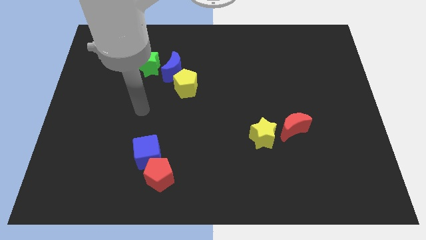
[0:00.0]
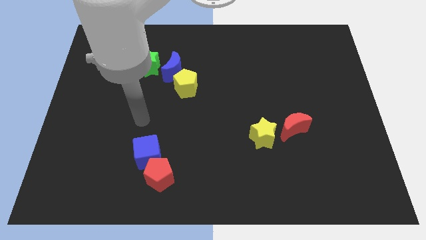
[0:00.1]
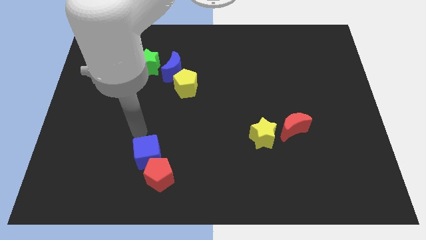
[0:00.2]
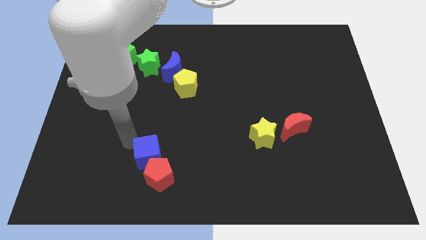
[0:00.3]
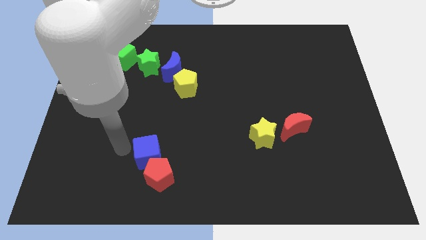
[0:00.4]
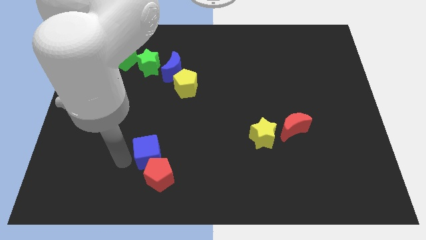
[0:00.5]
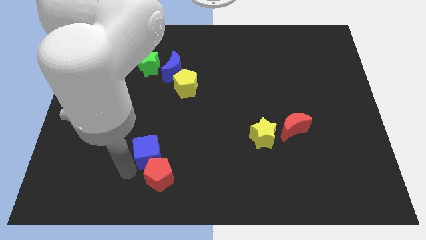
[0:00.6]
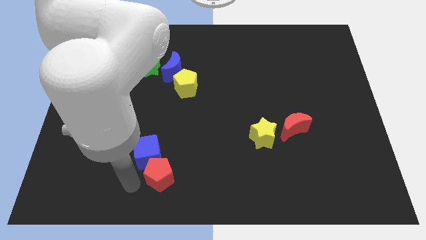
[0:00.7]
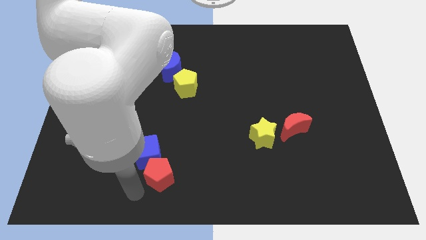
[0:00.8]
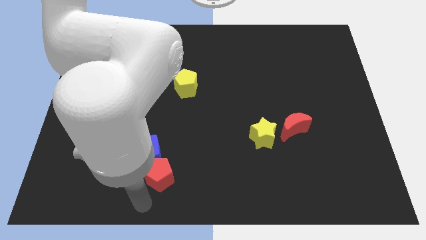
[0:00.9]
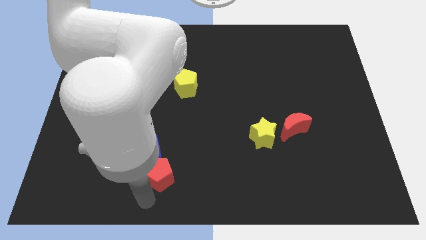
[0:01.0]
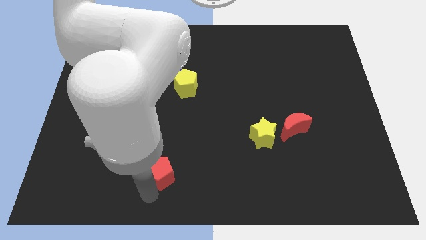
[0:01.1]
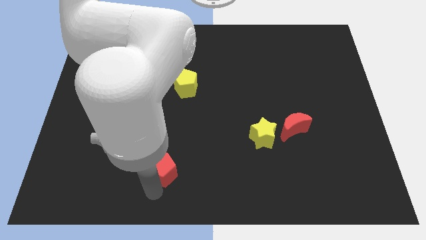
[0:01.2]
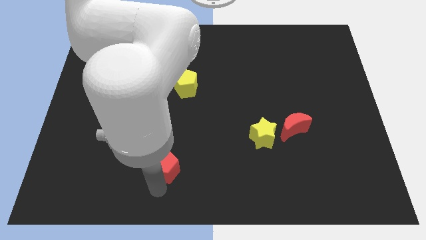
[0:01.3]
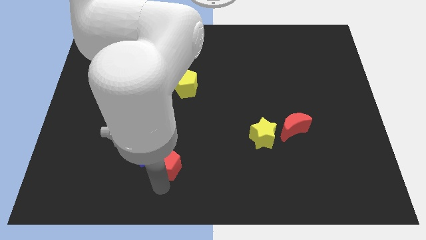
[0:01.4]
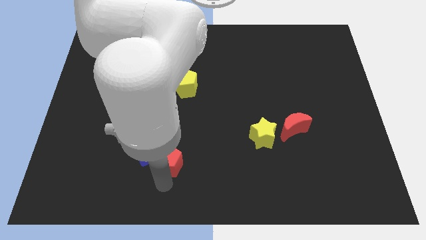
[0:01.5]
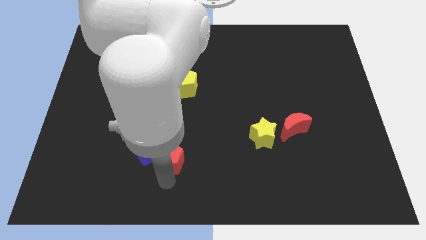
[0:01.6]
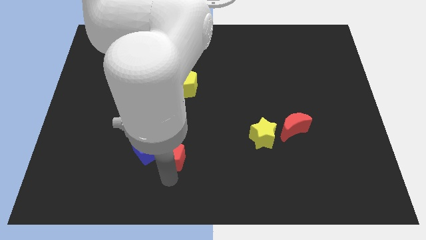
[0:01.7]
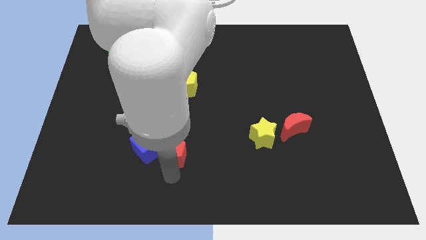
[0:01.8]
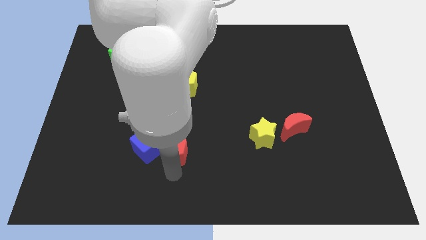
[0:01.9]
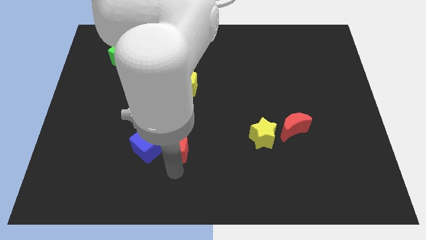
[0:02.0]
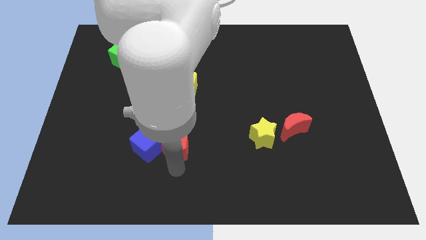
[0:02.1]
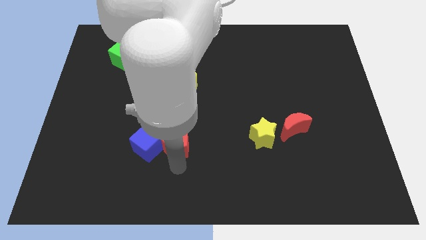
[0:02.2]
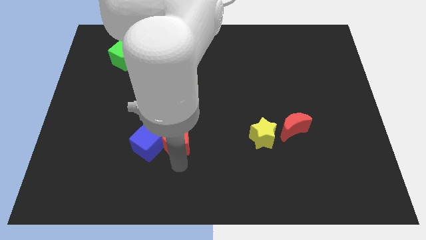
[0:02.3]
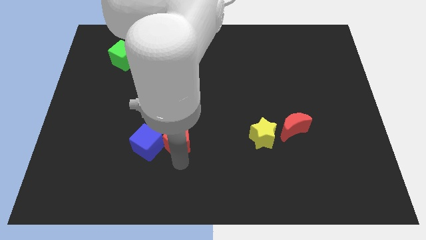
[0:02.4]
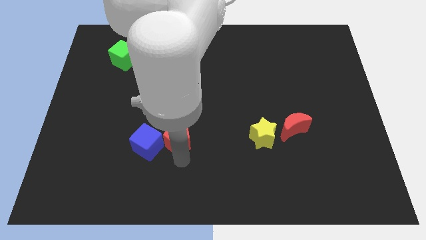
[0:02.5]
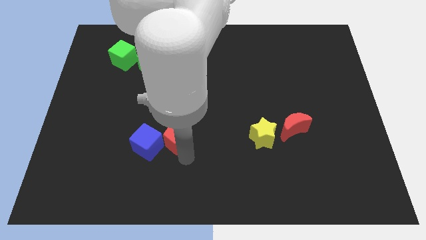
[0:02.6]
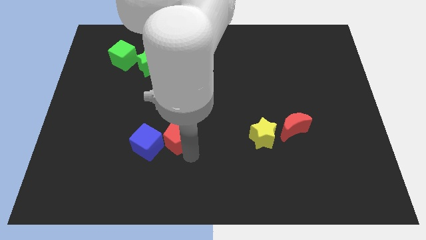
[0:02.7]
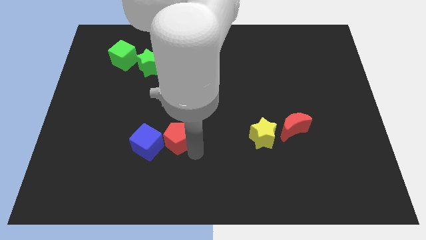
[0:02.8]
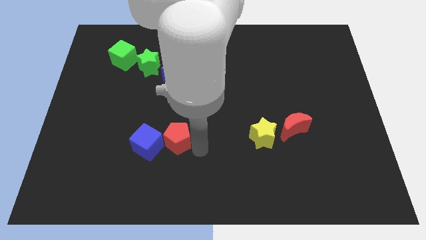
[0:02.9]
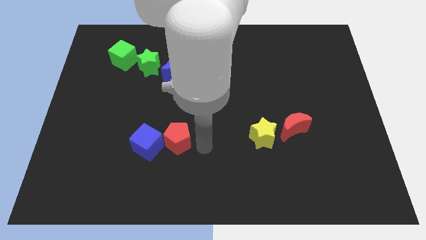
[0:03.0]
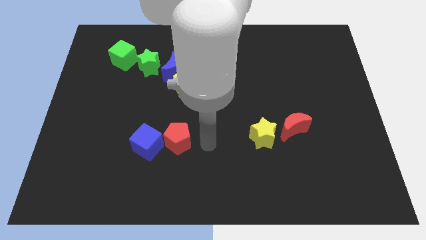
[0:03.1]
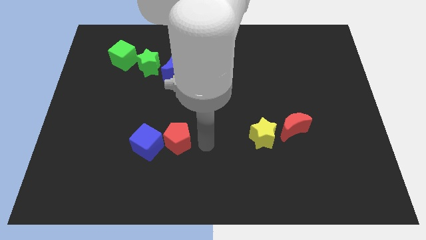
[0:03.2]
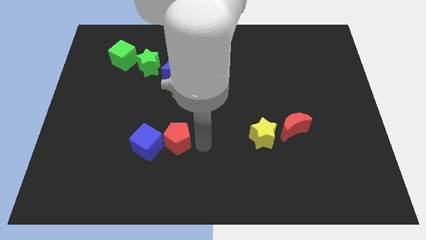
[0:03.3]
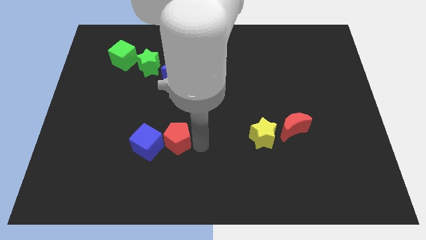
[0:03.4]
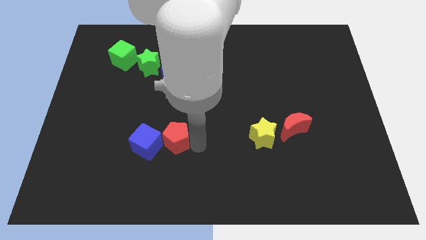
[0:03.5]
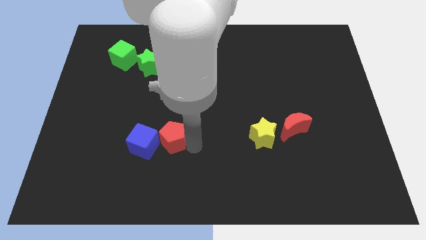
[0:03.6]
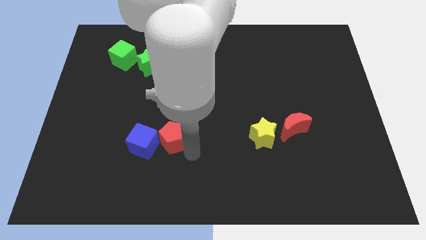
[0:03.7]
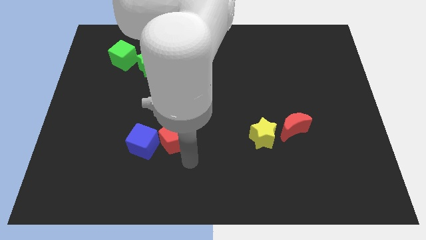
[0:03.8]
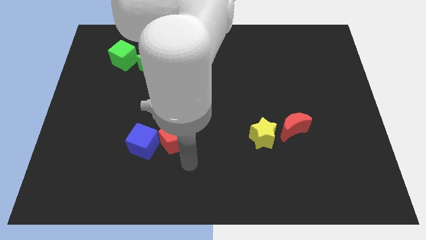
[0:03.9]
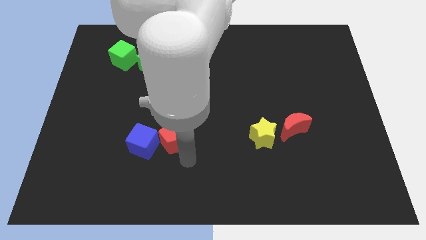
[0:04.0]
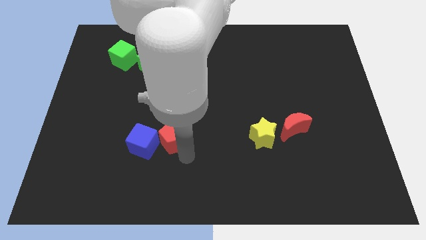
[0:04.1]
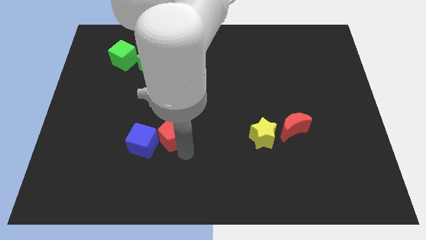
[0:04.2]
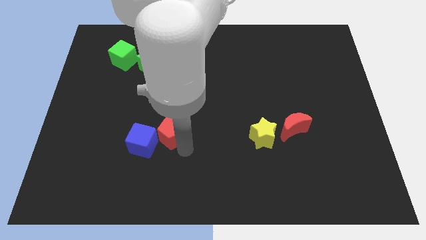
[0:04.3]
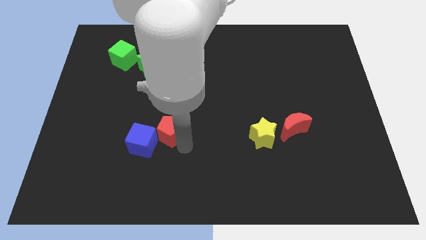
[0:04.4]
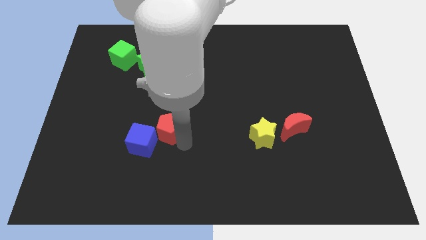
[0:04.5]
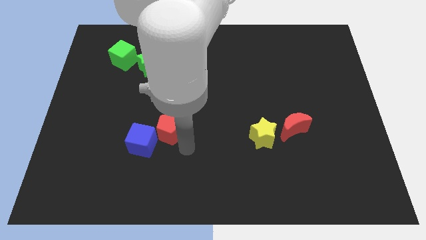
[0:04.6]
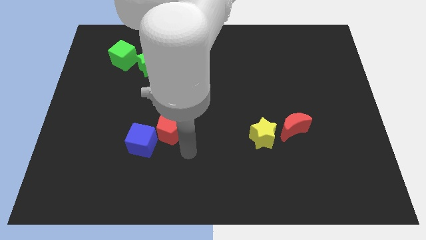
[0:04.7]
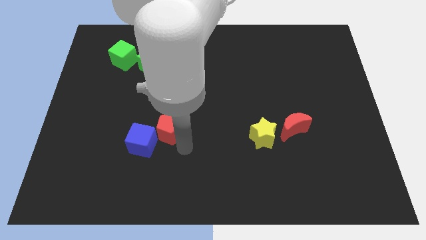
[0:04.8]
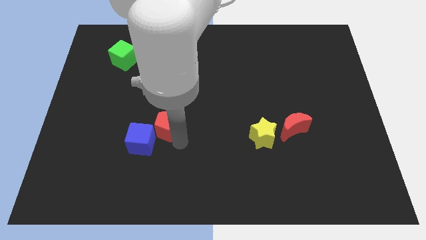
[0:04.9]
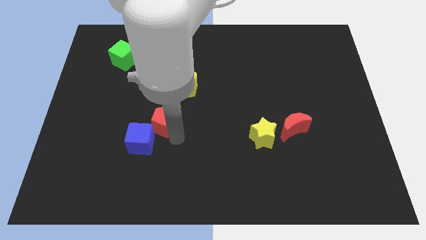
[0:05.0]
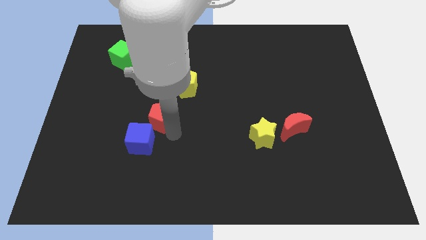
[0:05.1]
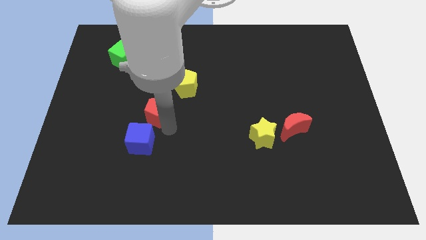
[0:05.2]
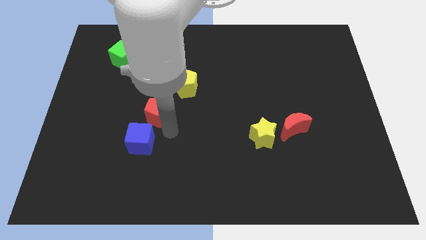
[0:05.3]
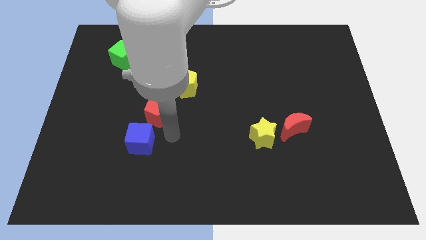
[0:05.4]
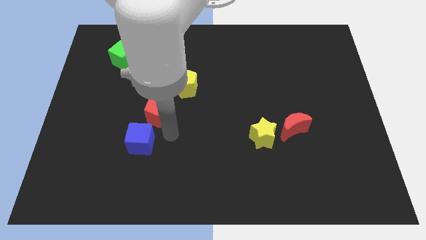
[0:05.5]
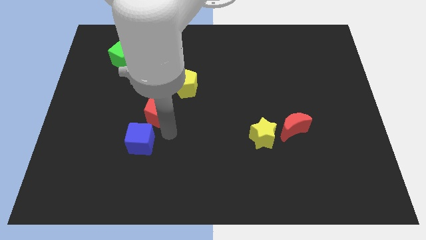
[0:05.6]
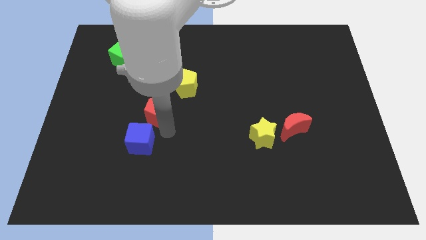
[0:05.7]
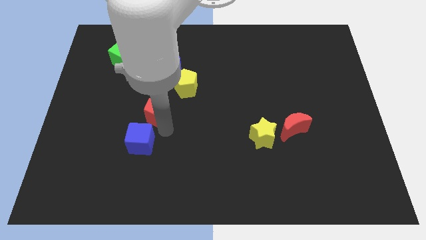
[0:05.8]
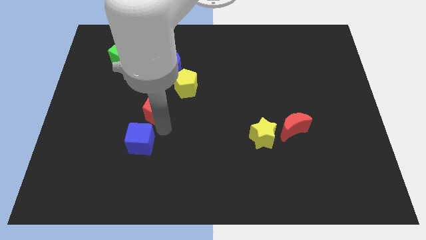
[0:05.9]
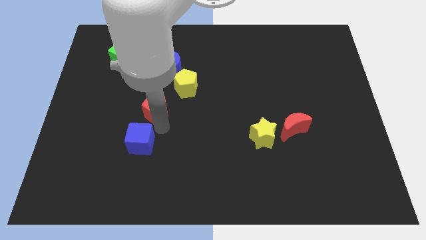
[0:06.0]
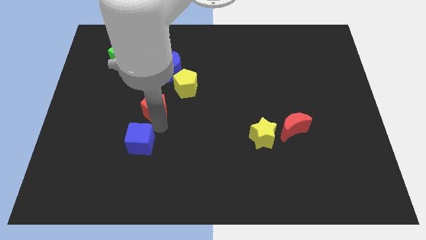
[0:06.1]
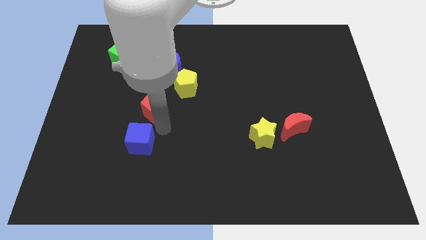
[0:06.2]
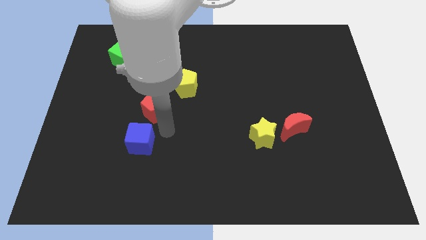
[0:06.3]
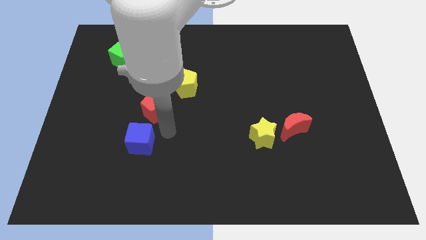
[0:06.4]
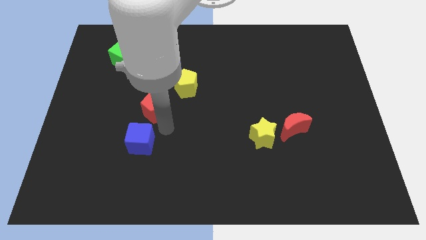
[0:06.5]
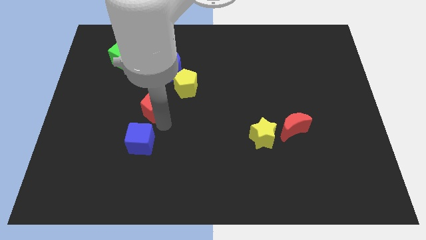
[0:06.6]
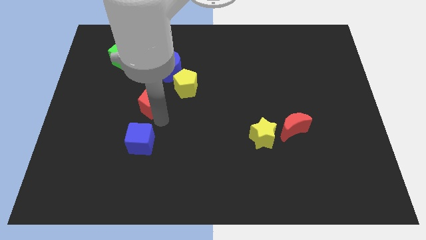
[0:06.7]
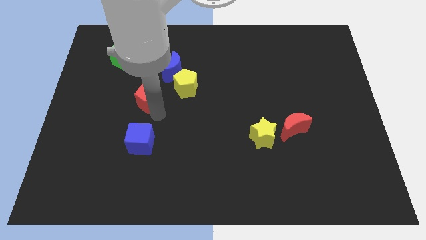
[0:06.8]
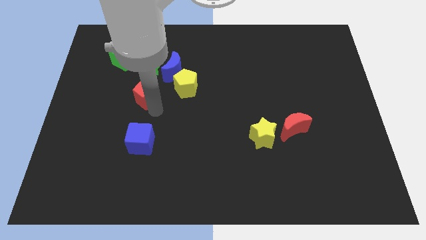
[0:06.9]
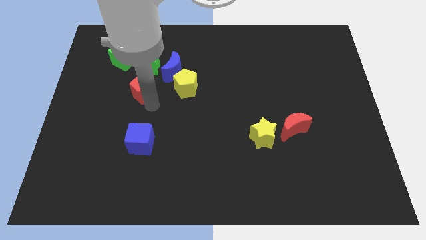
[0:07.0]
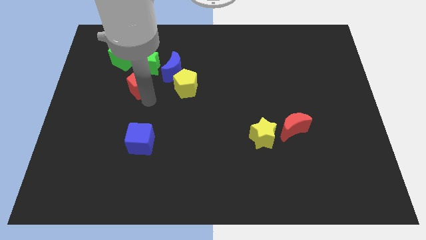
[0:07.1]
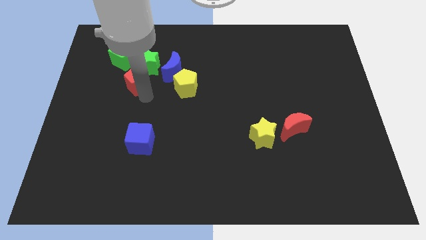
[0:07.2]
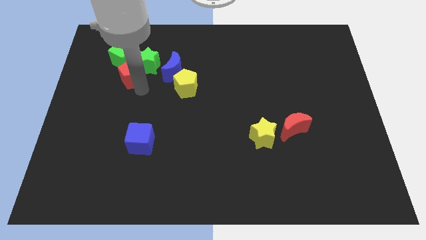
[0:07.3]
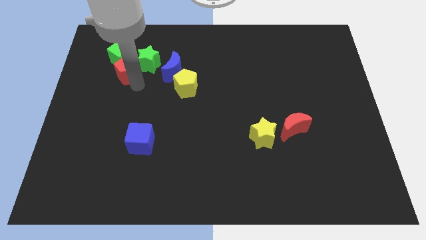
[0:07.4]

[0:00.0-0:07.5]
put the red pentagon to the green cube
